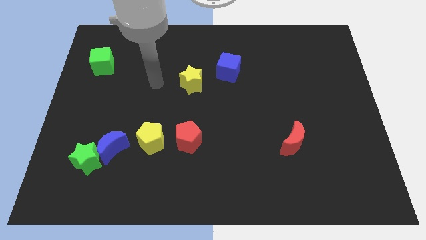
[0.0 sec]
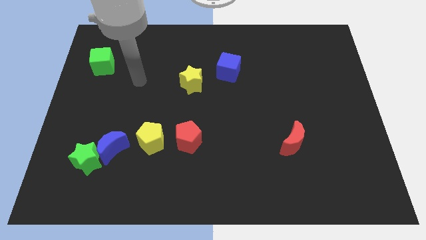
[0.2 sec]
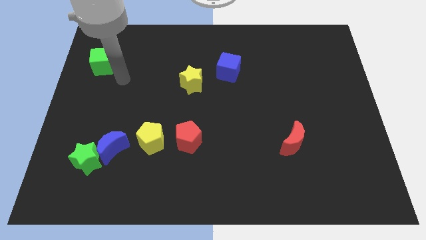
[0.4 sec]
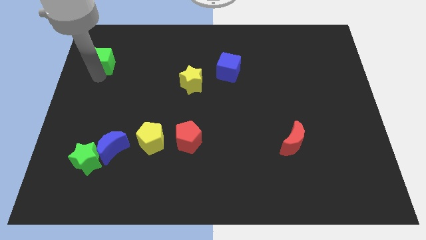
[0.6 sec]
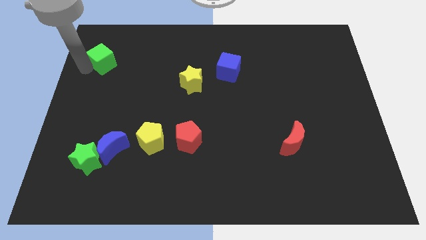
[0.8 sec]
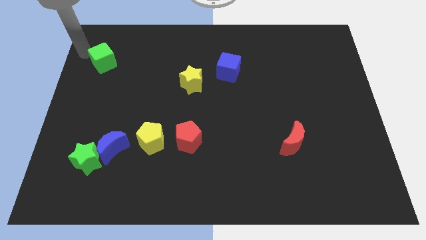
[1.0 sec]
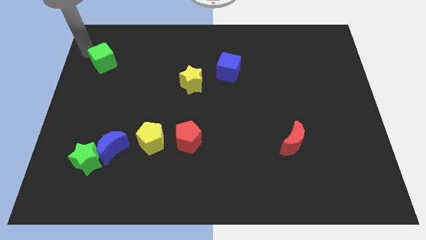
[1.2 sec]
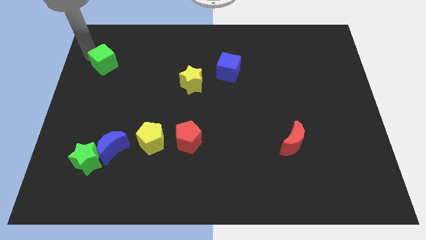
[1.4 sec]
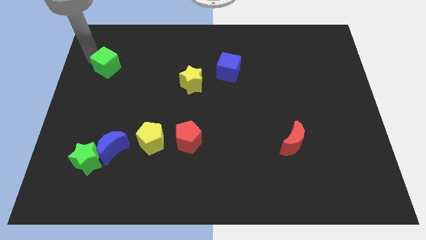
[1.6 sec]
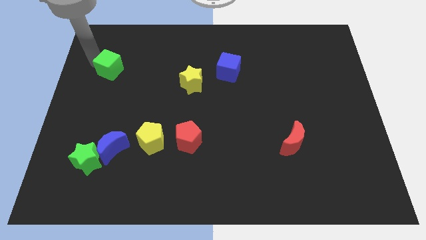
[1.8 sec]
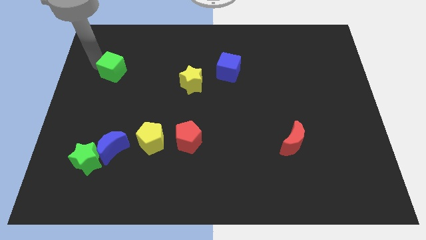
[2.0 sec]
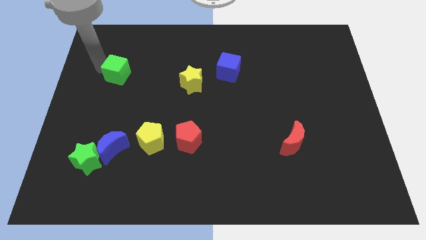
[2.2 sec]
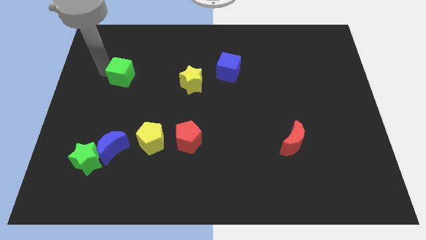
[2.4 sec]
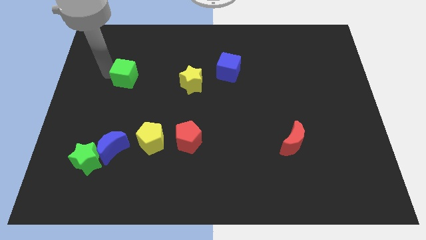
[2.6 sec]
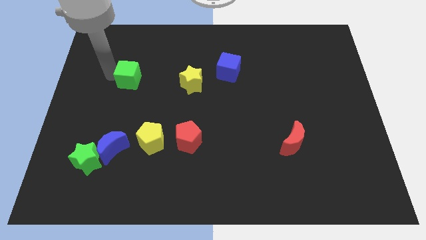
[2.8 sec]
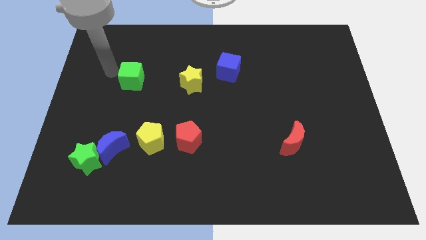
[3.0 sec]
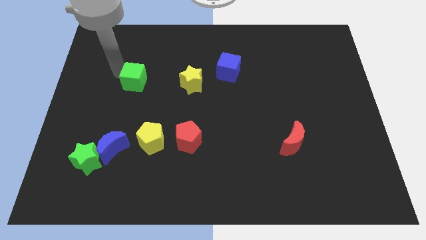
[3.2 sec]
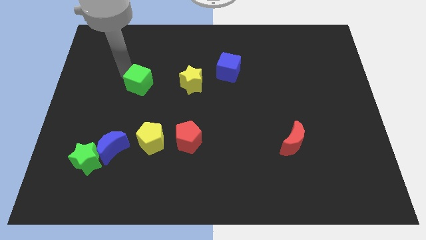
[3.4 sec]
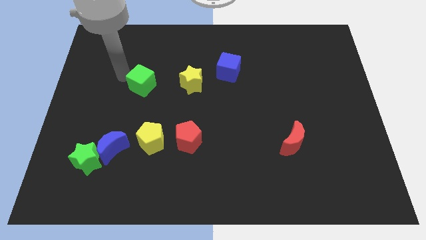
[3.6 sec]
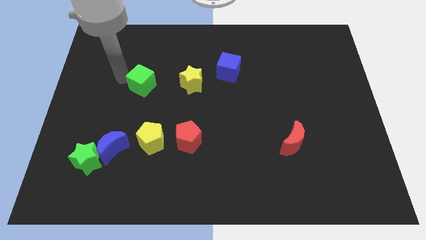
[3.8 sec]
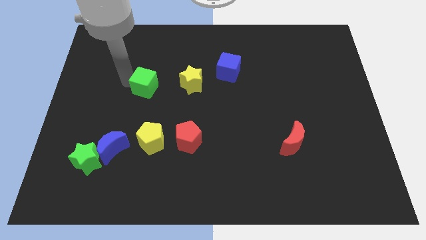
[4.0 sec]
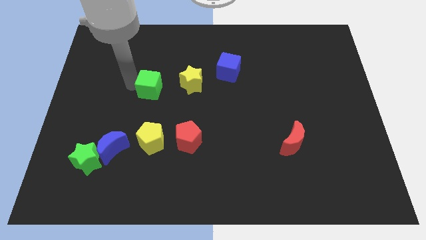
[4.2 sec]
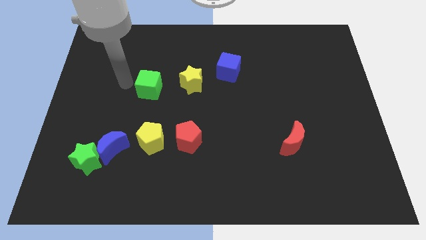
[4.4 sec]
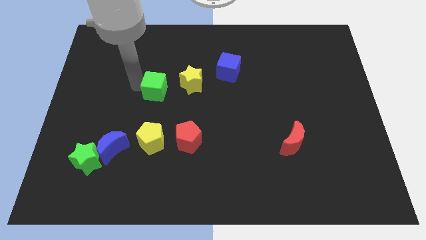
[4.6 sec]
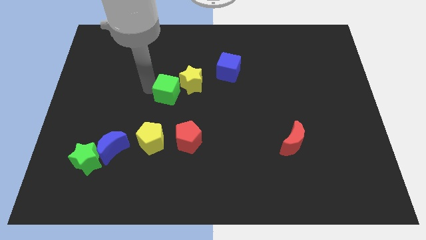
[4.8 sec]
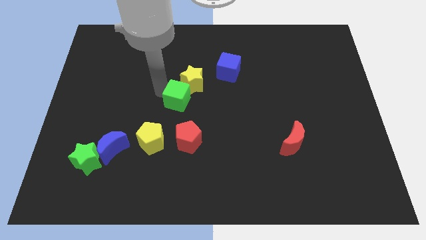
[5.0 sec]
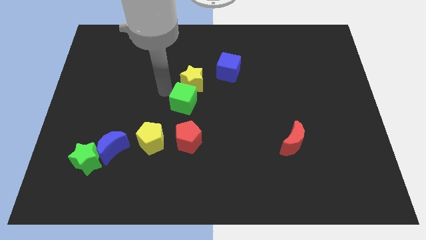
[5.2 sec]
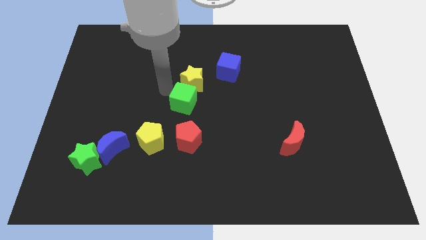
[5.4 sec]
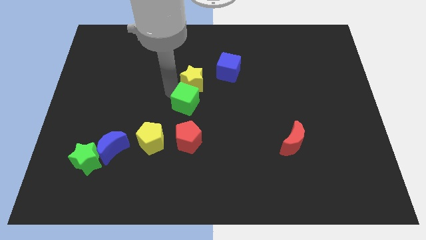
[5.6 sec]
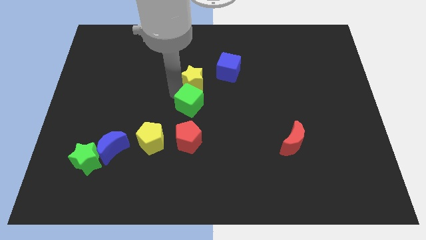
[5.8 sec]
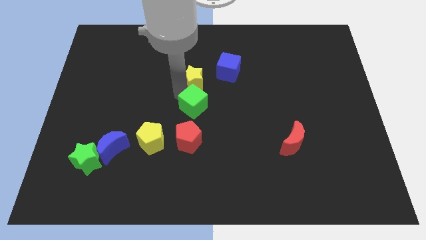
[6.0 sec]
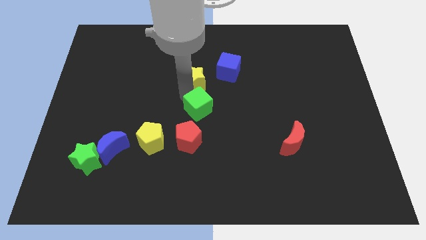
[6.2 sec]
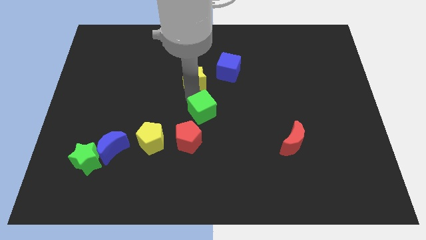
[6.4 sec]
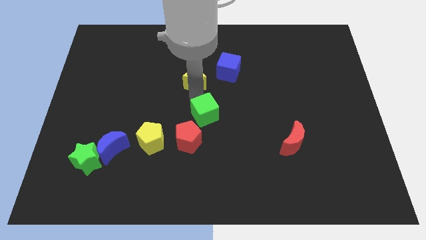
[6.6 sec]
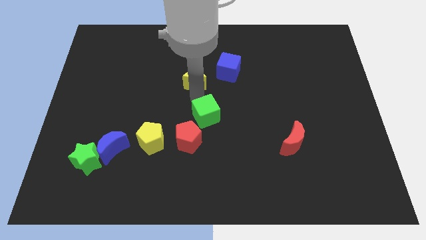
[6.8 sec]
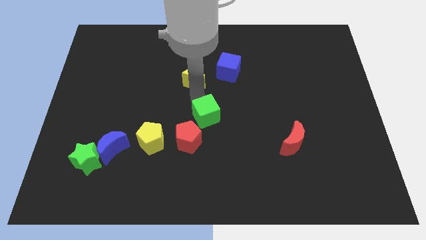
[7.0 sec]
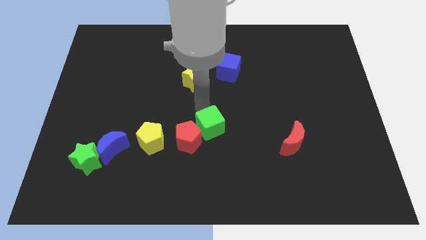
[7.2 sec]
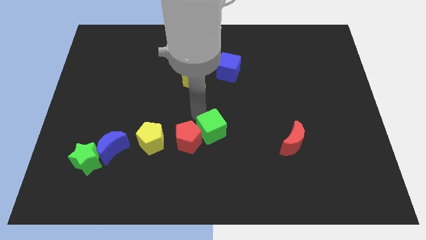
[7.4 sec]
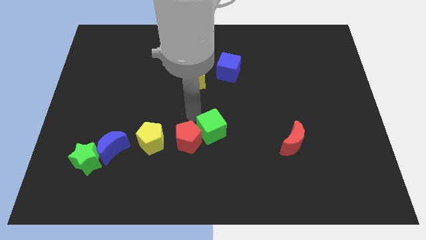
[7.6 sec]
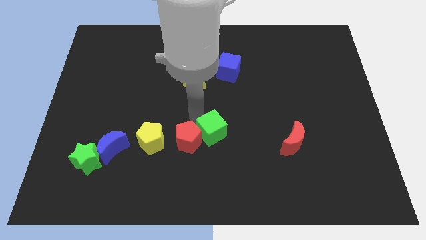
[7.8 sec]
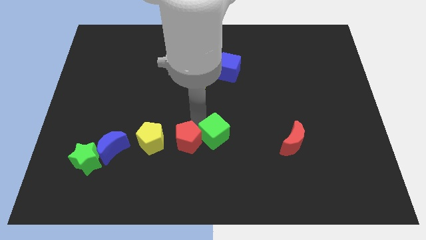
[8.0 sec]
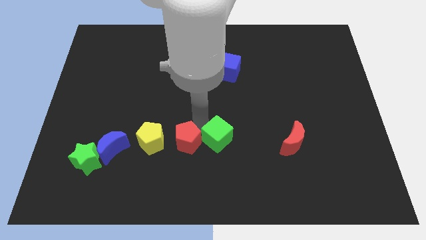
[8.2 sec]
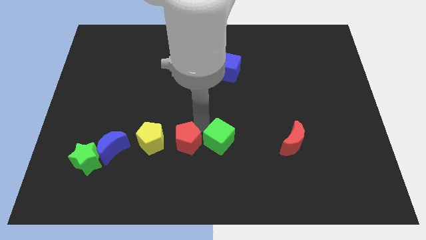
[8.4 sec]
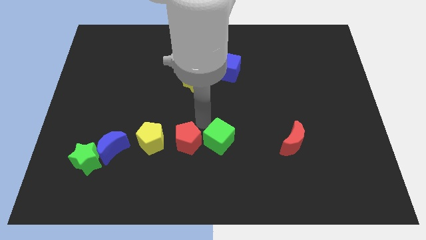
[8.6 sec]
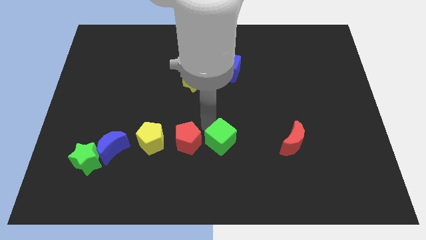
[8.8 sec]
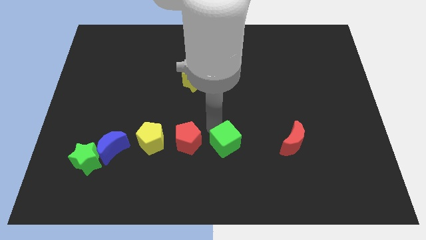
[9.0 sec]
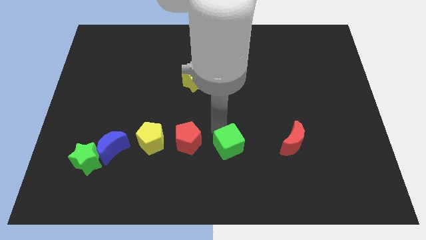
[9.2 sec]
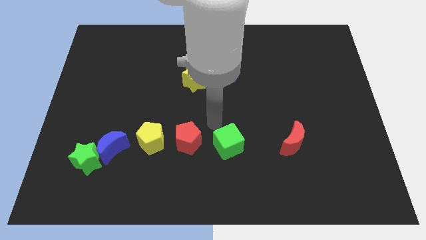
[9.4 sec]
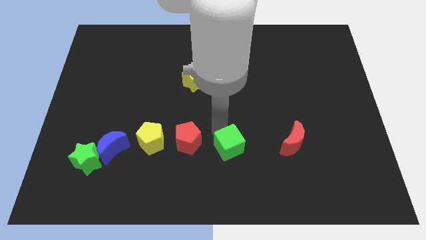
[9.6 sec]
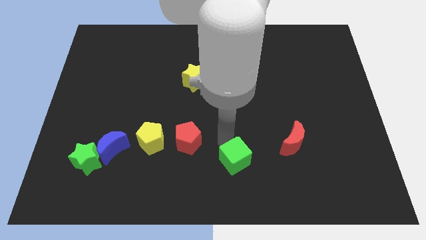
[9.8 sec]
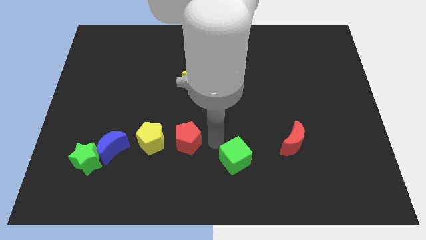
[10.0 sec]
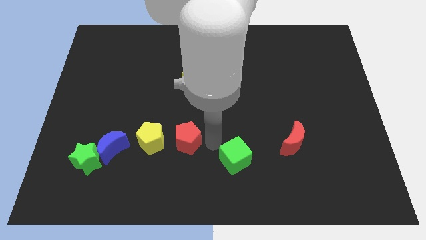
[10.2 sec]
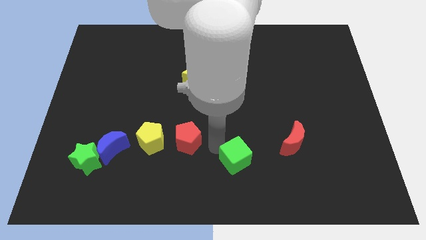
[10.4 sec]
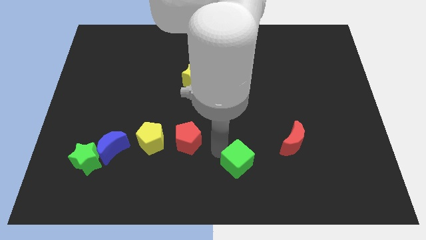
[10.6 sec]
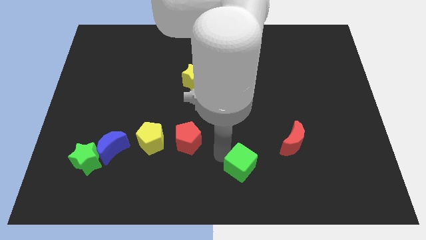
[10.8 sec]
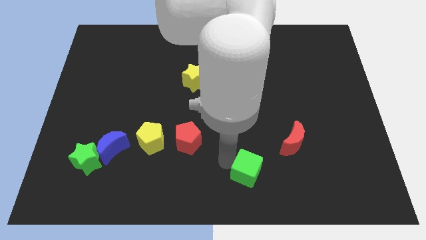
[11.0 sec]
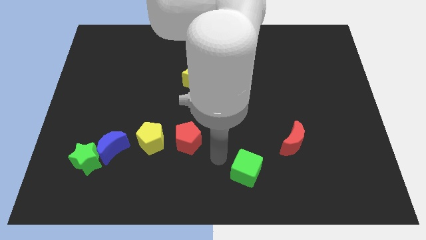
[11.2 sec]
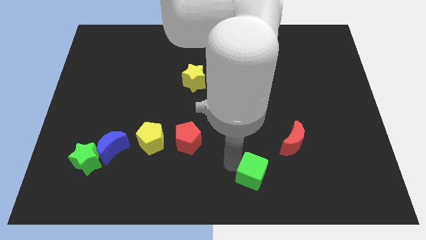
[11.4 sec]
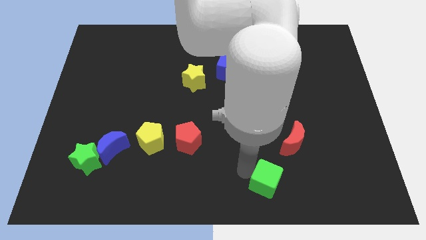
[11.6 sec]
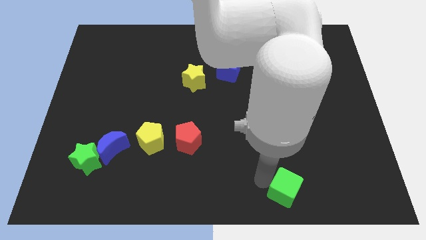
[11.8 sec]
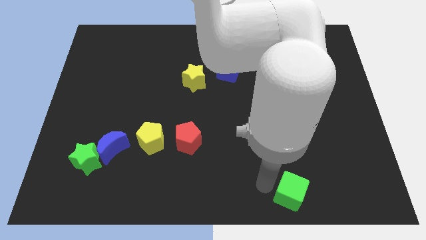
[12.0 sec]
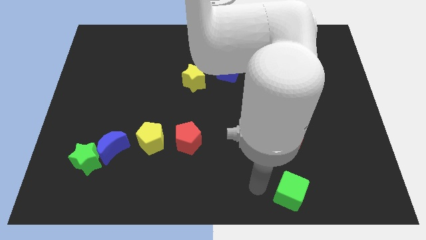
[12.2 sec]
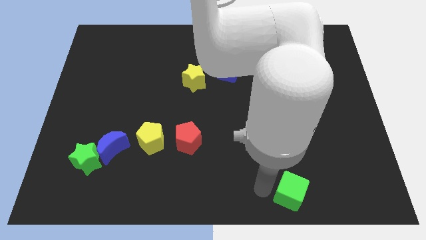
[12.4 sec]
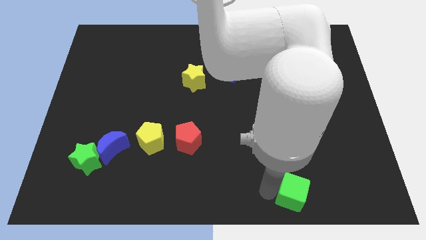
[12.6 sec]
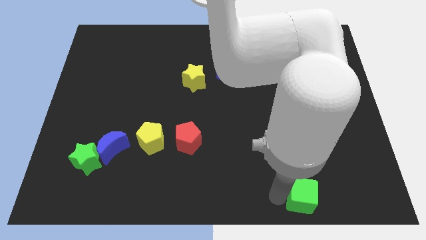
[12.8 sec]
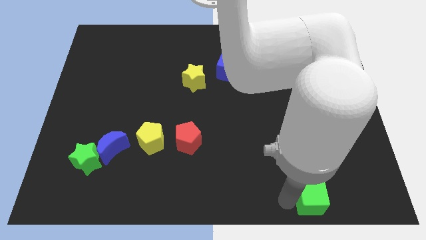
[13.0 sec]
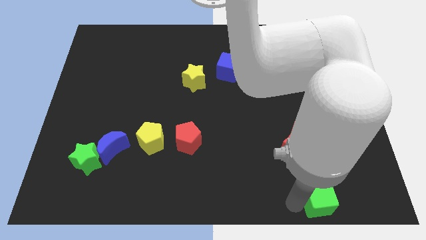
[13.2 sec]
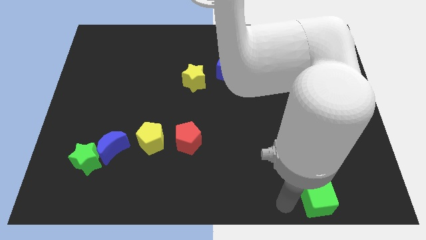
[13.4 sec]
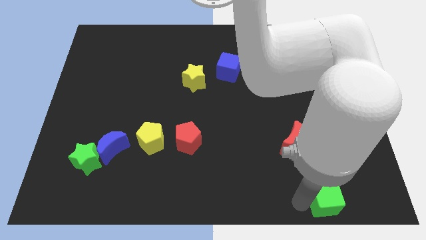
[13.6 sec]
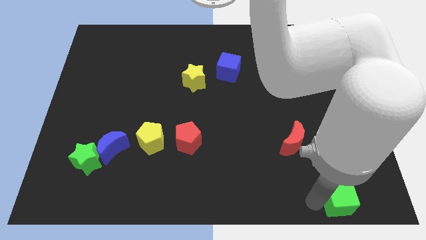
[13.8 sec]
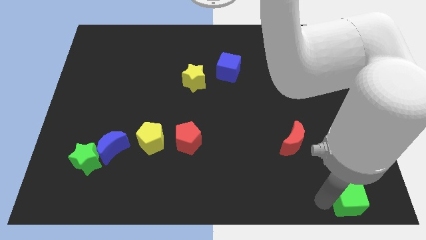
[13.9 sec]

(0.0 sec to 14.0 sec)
slide the green cube to the bottom right corner

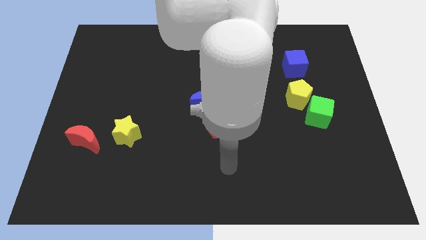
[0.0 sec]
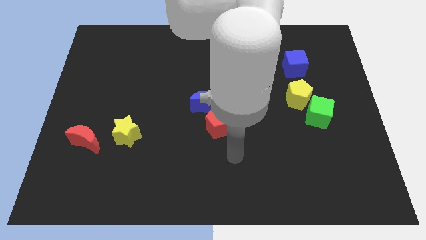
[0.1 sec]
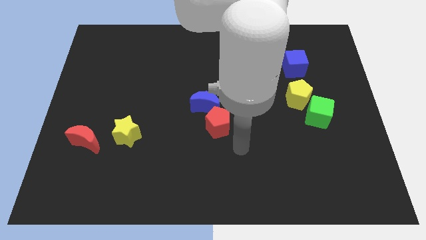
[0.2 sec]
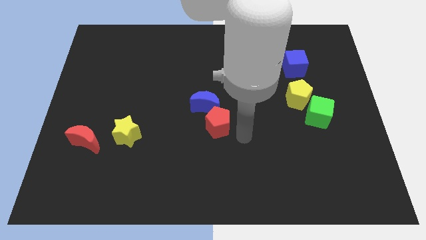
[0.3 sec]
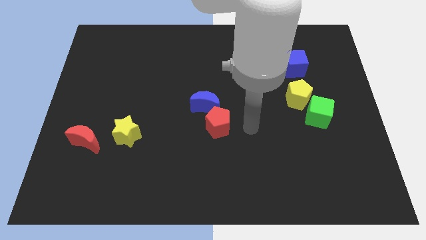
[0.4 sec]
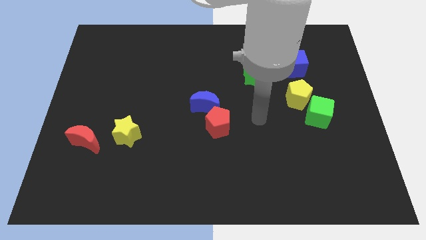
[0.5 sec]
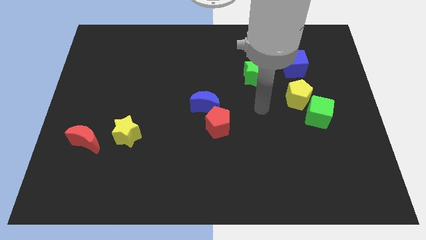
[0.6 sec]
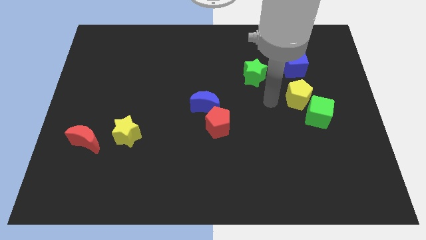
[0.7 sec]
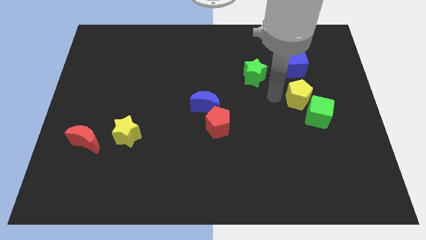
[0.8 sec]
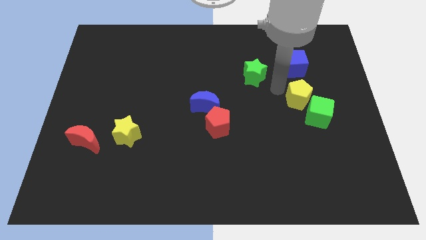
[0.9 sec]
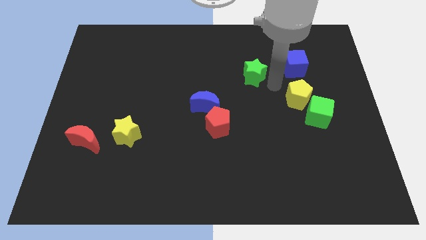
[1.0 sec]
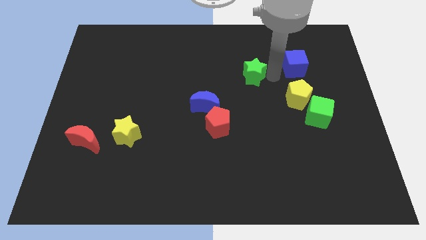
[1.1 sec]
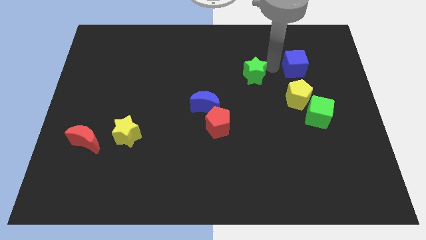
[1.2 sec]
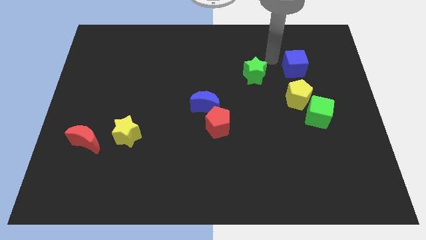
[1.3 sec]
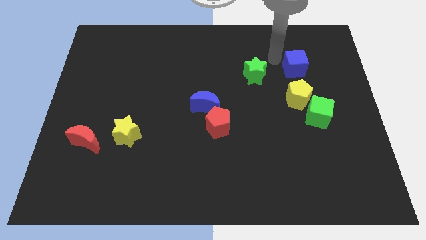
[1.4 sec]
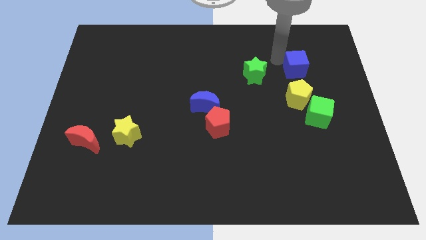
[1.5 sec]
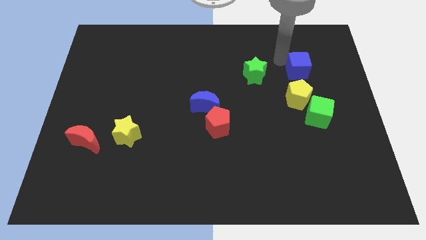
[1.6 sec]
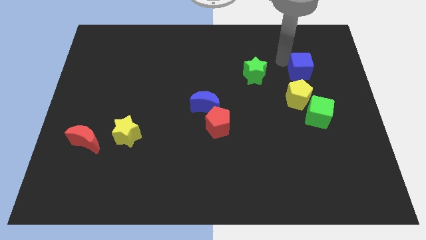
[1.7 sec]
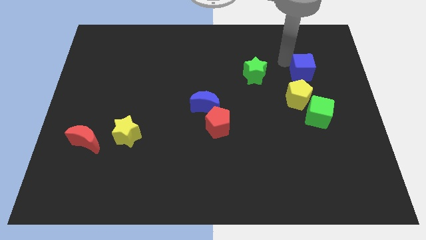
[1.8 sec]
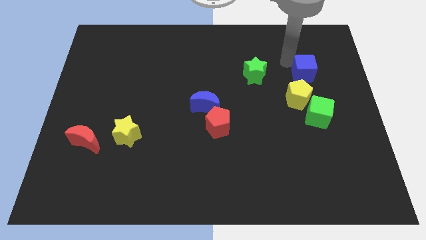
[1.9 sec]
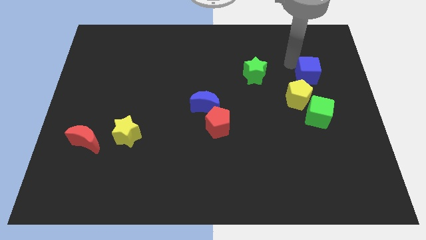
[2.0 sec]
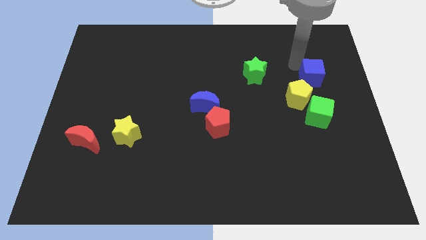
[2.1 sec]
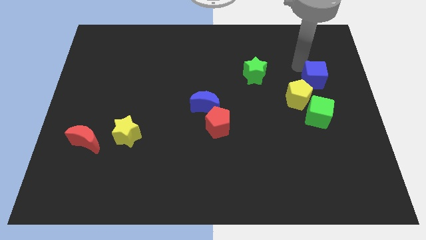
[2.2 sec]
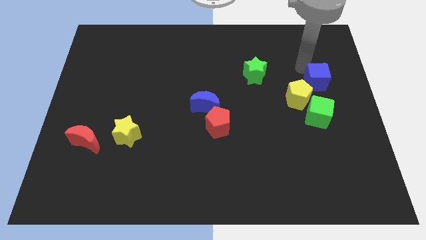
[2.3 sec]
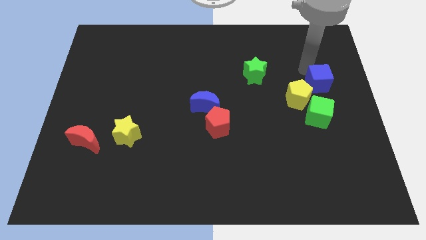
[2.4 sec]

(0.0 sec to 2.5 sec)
move the blue cube to the right side of the board
